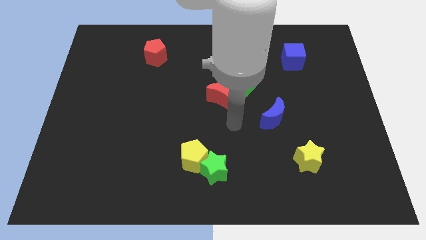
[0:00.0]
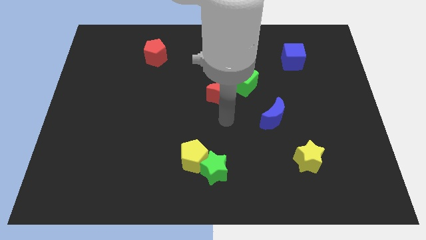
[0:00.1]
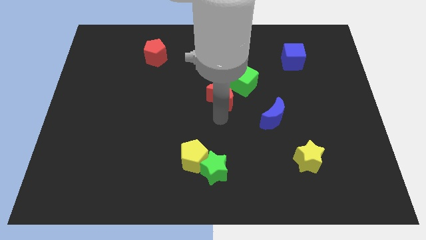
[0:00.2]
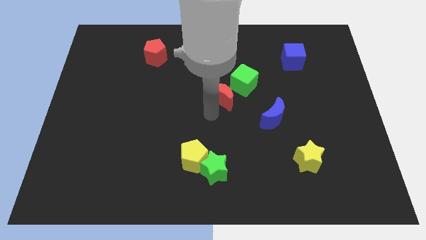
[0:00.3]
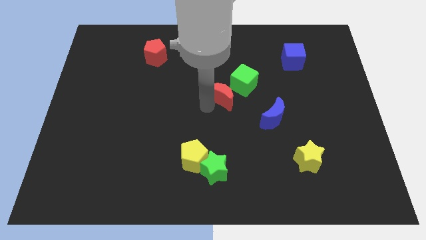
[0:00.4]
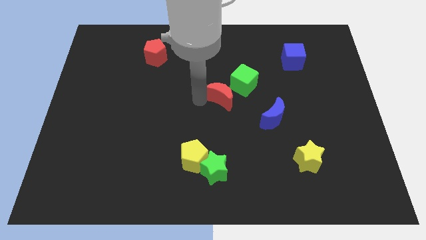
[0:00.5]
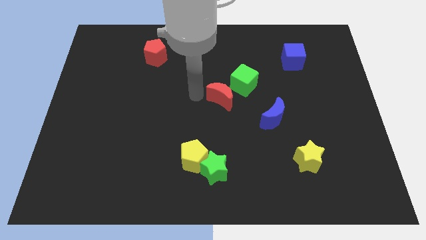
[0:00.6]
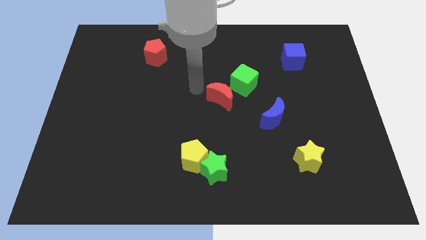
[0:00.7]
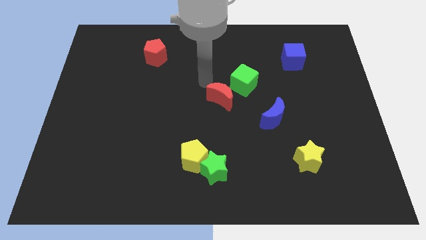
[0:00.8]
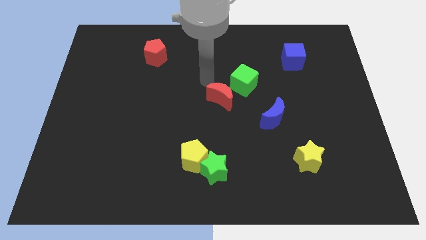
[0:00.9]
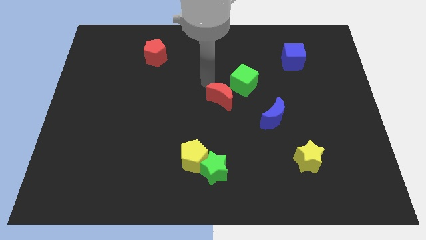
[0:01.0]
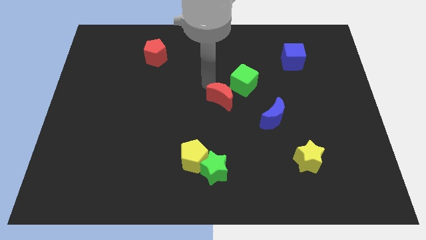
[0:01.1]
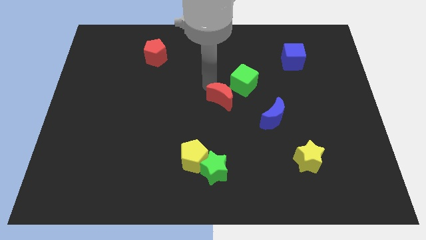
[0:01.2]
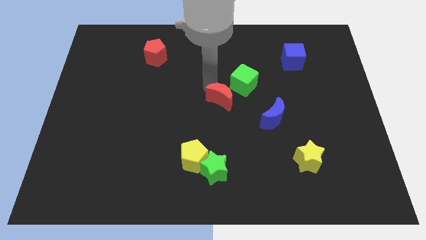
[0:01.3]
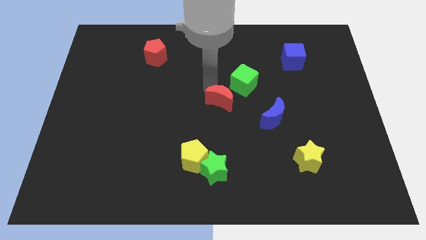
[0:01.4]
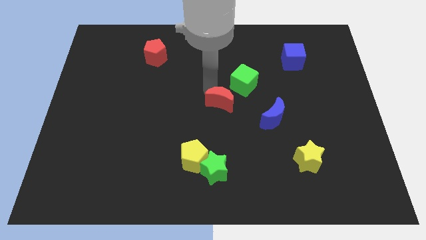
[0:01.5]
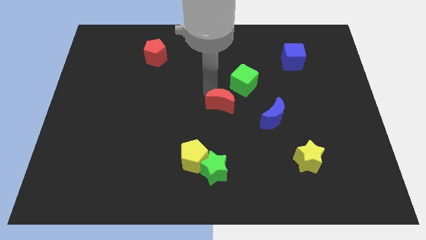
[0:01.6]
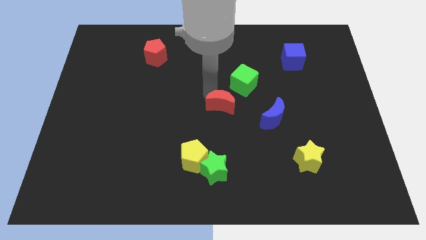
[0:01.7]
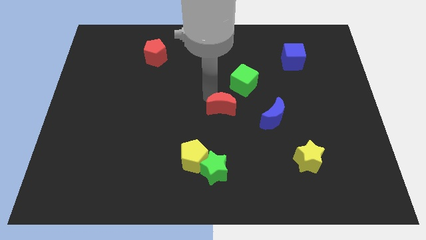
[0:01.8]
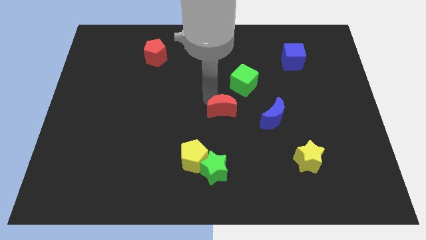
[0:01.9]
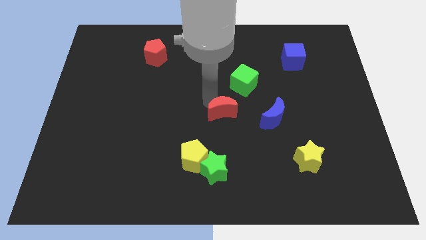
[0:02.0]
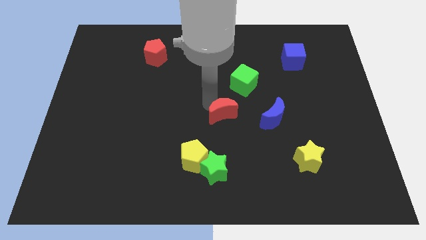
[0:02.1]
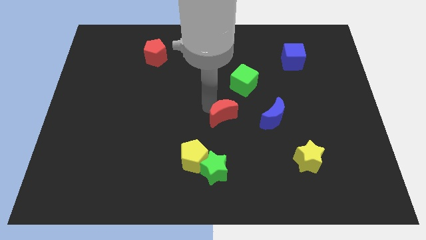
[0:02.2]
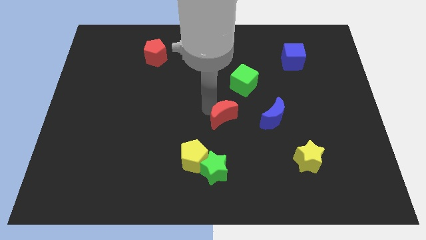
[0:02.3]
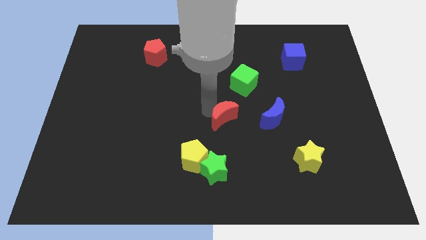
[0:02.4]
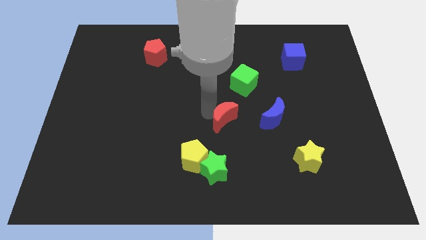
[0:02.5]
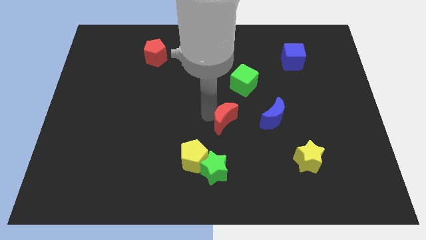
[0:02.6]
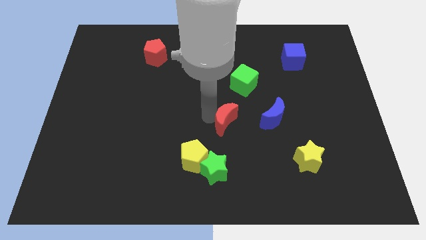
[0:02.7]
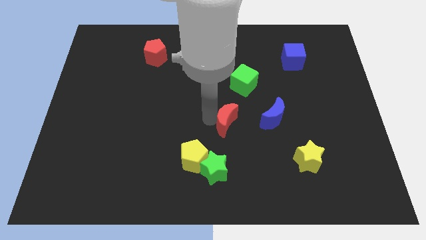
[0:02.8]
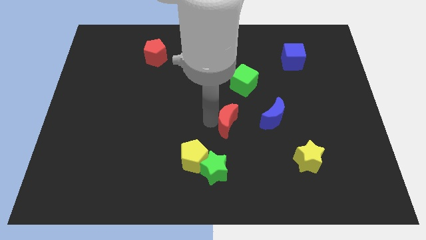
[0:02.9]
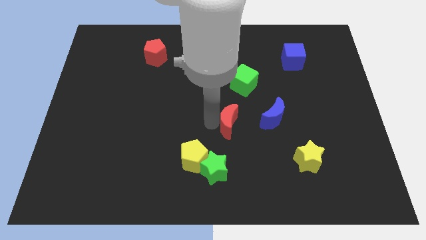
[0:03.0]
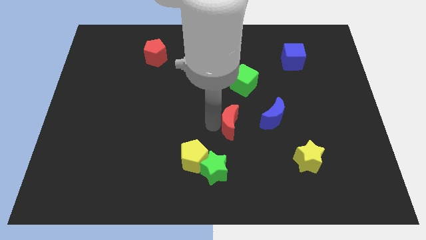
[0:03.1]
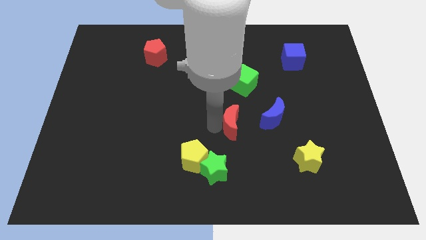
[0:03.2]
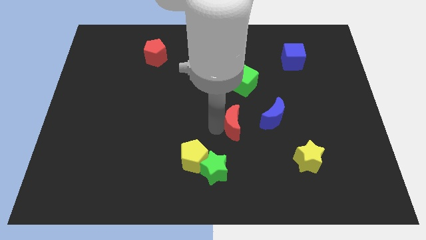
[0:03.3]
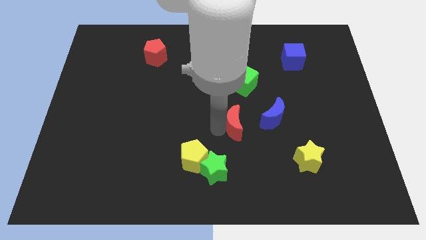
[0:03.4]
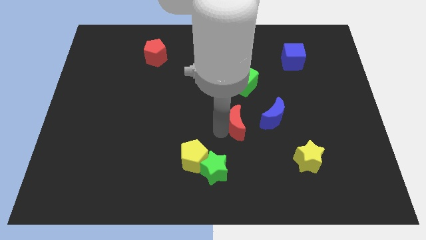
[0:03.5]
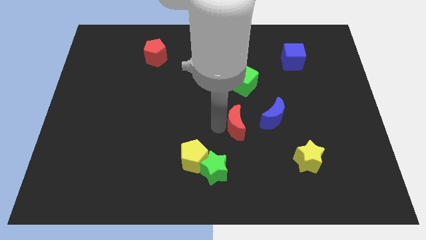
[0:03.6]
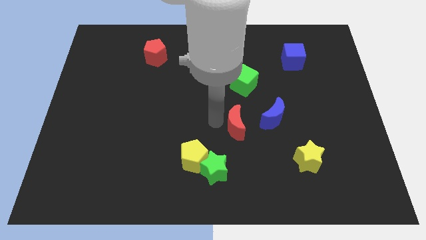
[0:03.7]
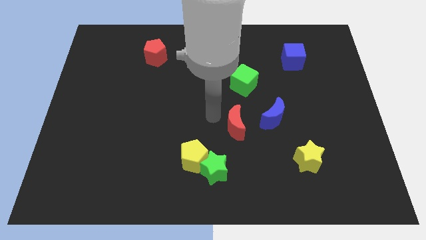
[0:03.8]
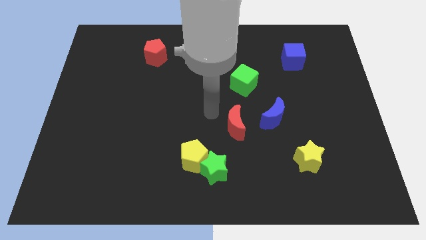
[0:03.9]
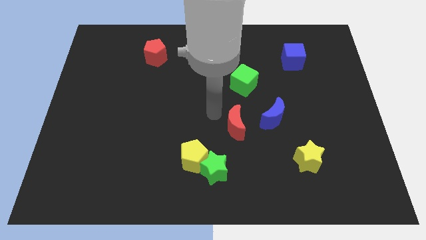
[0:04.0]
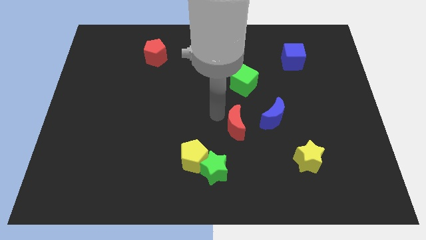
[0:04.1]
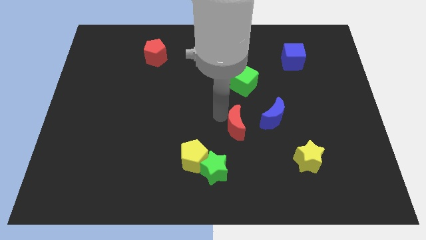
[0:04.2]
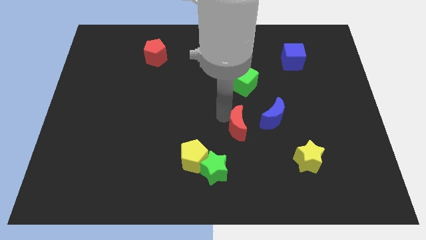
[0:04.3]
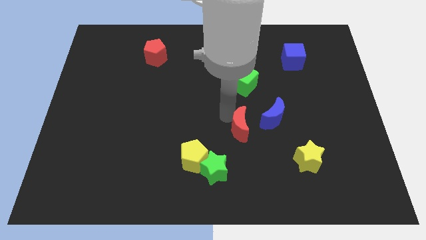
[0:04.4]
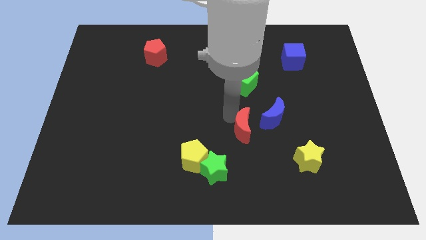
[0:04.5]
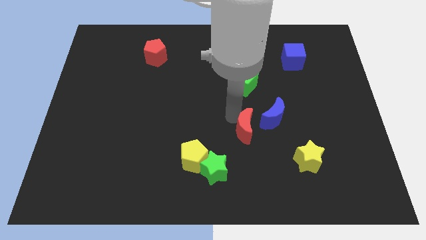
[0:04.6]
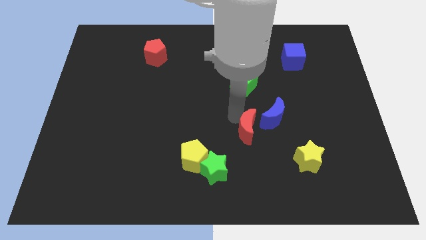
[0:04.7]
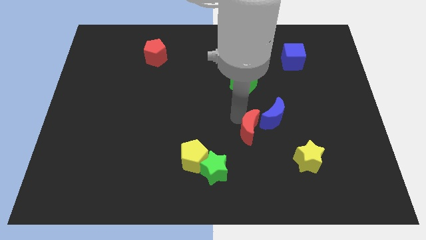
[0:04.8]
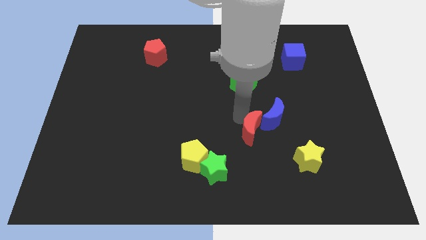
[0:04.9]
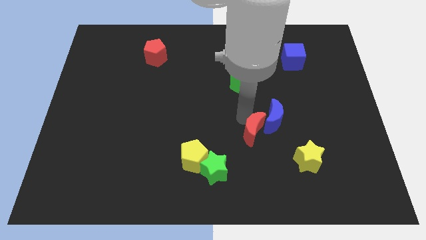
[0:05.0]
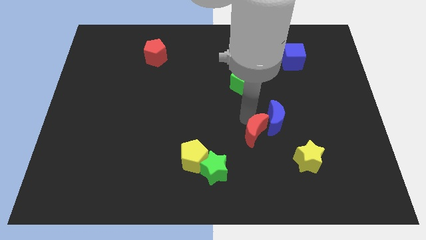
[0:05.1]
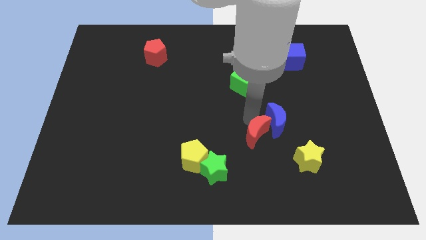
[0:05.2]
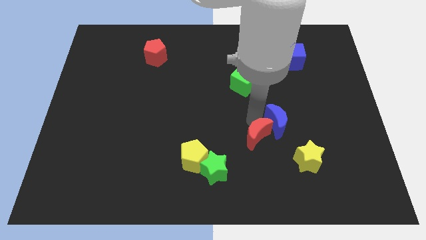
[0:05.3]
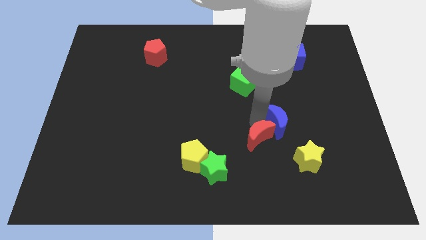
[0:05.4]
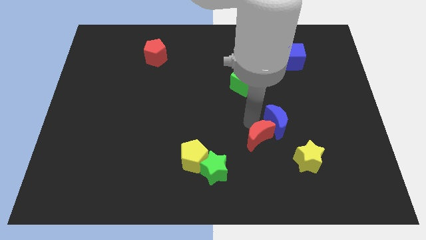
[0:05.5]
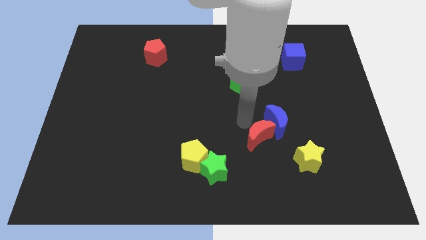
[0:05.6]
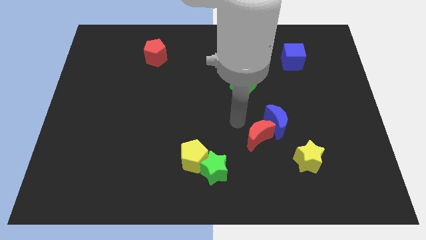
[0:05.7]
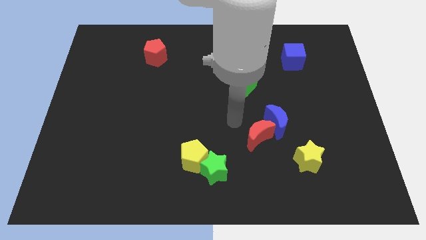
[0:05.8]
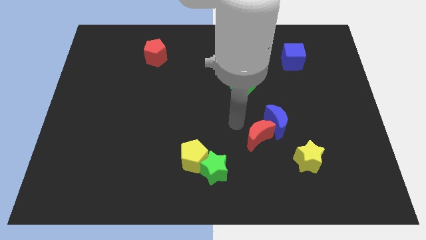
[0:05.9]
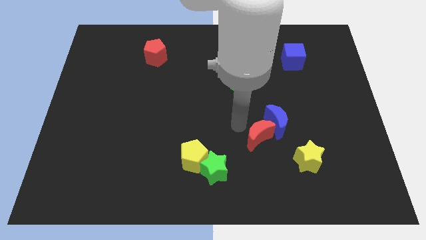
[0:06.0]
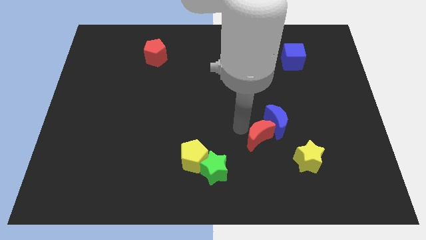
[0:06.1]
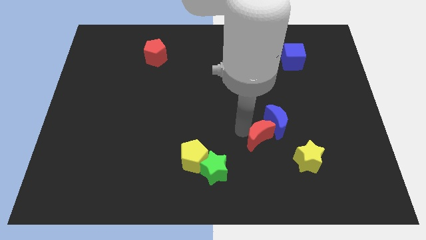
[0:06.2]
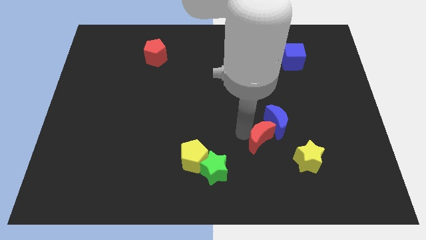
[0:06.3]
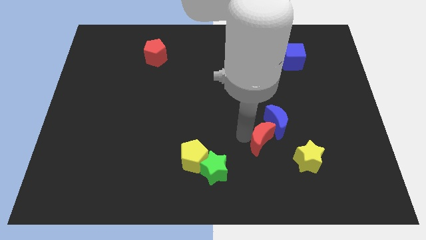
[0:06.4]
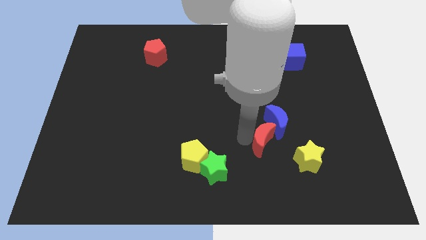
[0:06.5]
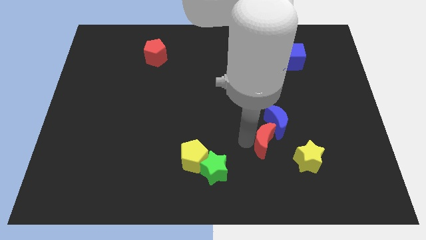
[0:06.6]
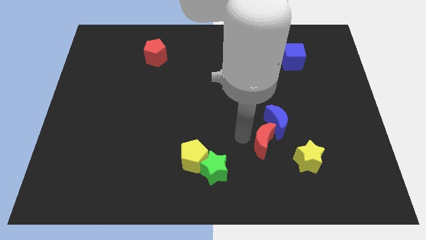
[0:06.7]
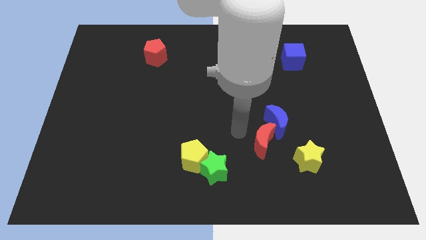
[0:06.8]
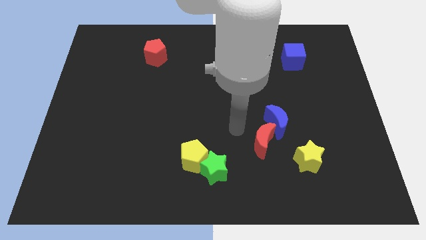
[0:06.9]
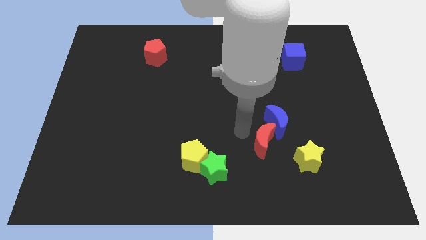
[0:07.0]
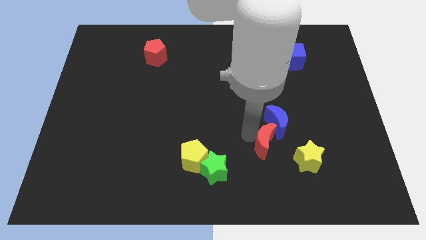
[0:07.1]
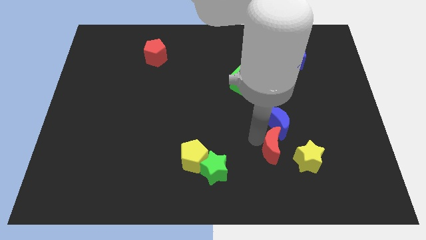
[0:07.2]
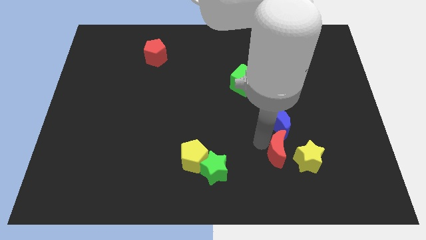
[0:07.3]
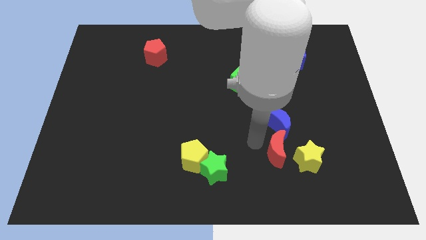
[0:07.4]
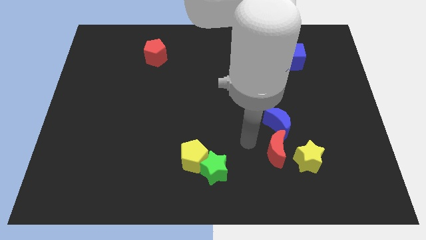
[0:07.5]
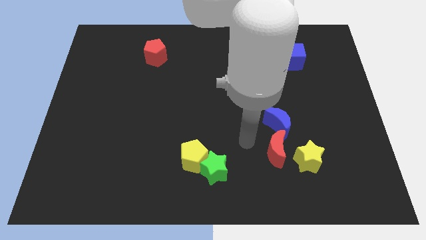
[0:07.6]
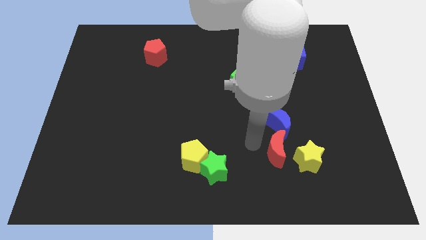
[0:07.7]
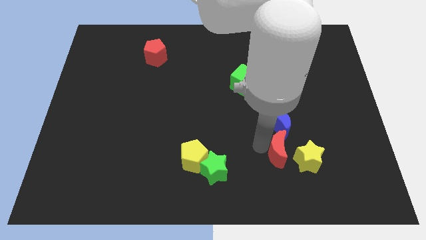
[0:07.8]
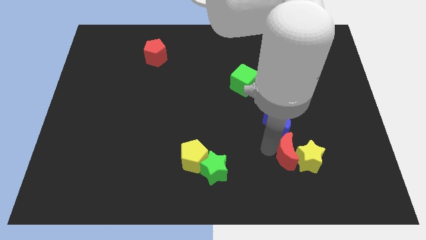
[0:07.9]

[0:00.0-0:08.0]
move the red moon towards the yellow star
